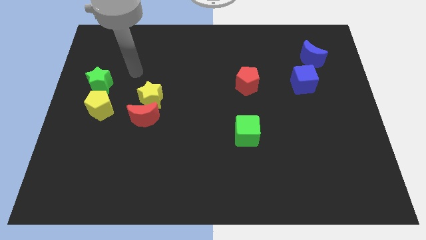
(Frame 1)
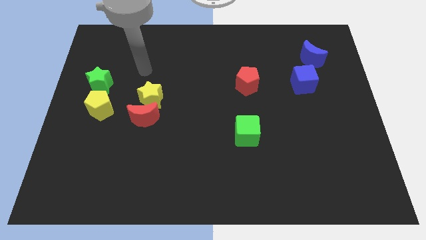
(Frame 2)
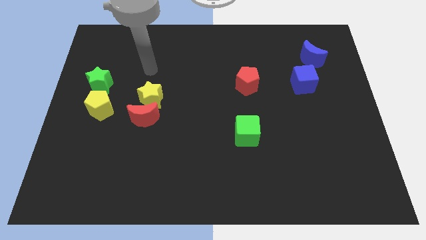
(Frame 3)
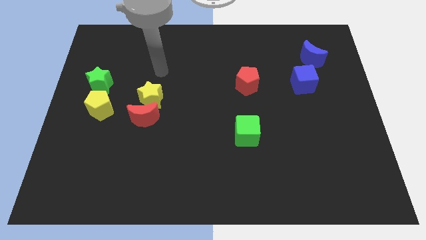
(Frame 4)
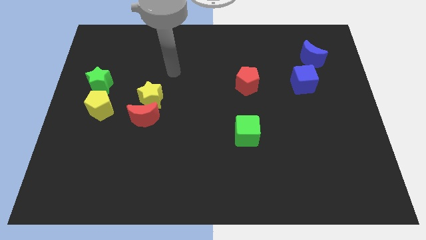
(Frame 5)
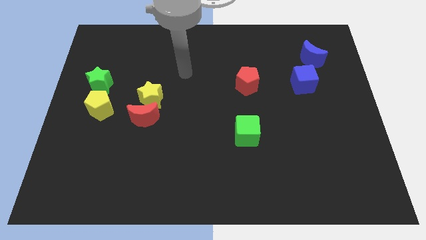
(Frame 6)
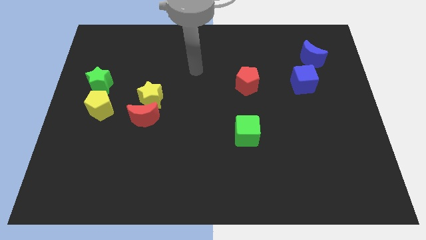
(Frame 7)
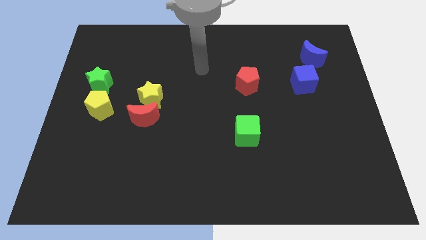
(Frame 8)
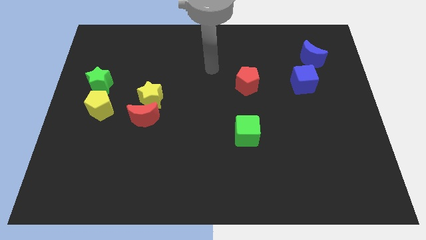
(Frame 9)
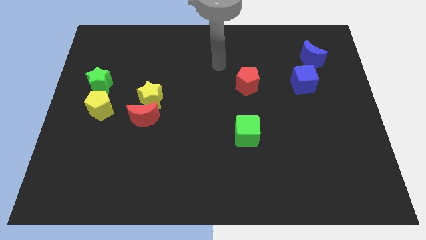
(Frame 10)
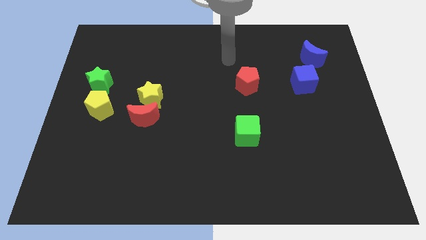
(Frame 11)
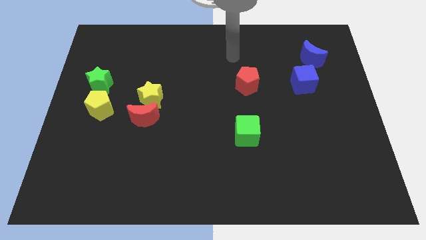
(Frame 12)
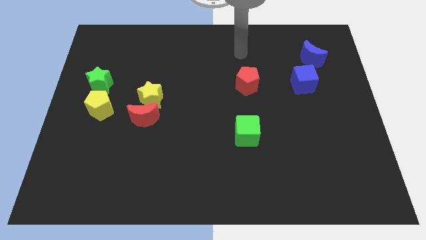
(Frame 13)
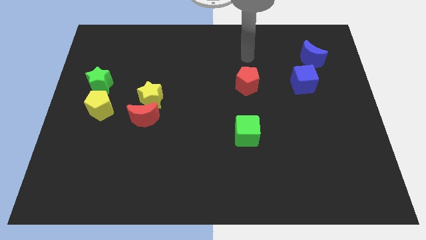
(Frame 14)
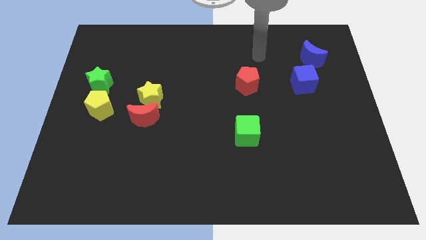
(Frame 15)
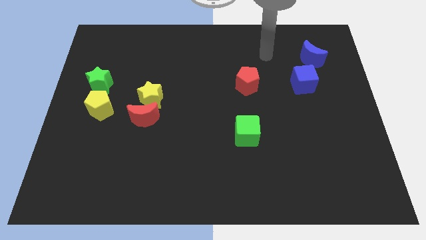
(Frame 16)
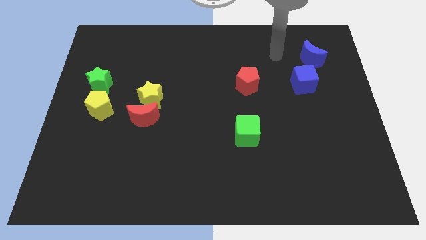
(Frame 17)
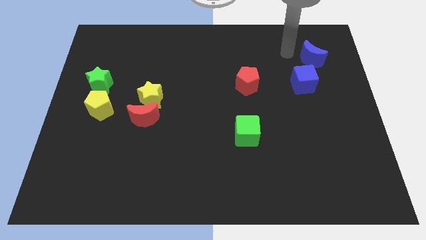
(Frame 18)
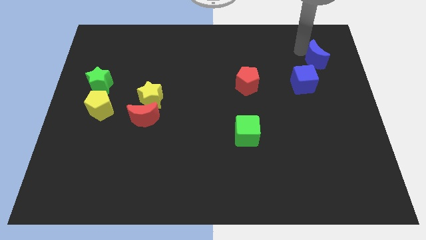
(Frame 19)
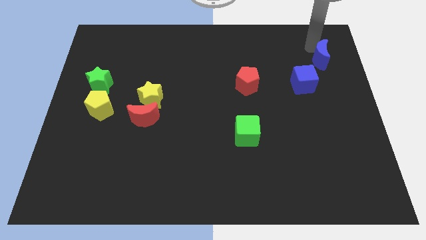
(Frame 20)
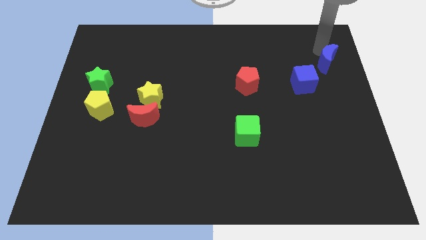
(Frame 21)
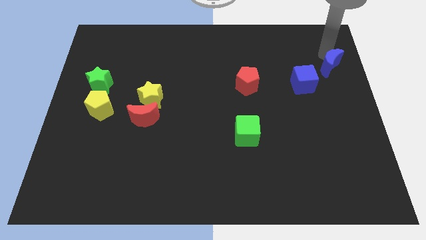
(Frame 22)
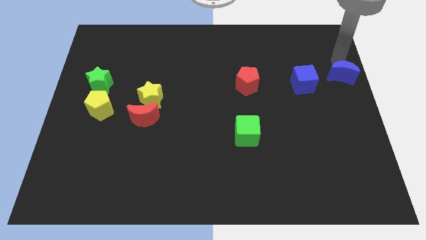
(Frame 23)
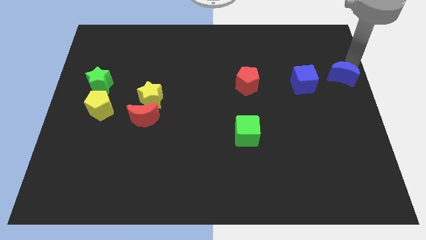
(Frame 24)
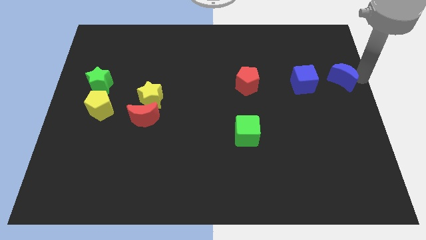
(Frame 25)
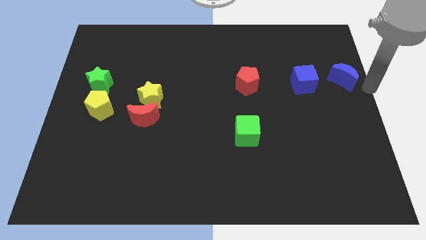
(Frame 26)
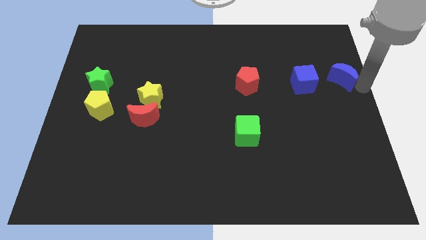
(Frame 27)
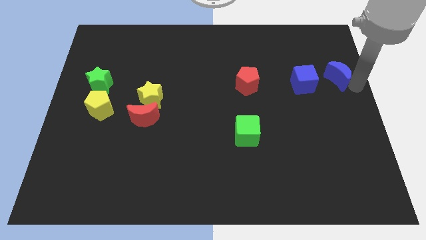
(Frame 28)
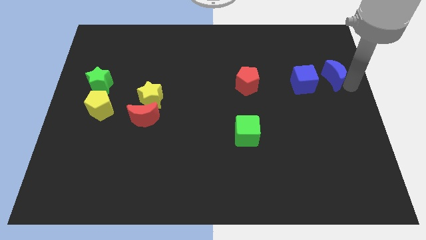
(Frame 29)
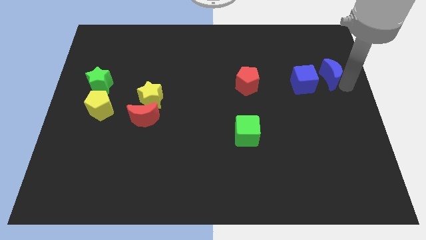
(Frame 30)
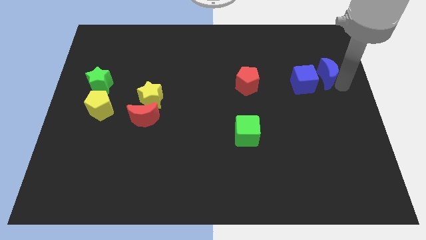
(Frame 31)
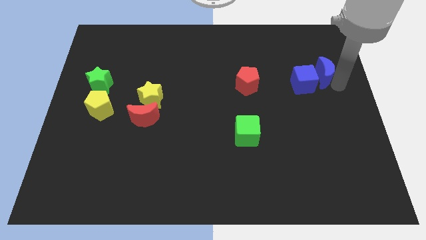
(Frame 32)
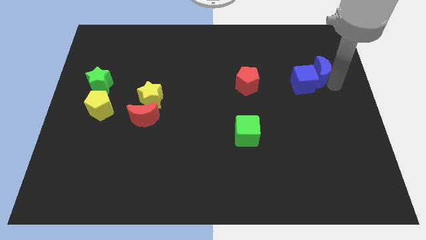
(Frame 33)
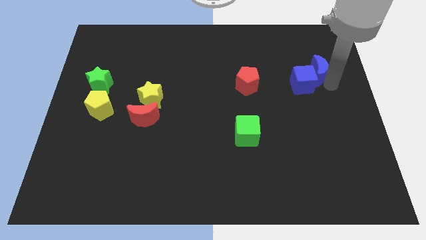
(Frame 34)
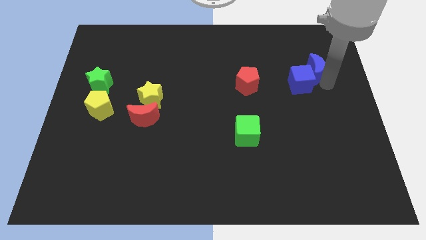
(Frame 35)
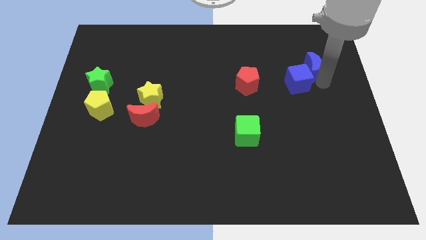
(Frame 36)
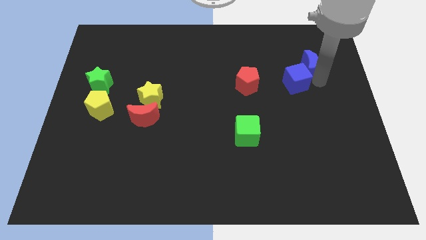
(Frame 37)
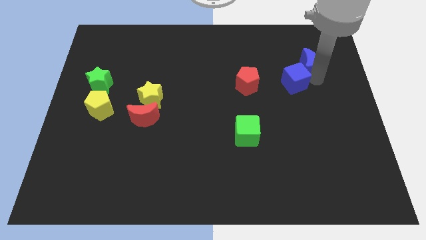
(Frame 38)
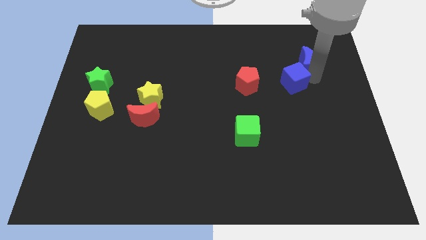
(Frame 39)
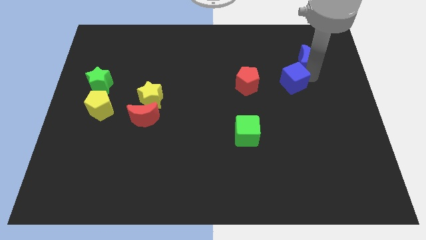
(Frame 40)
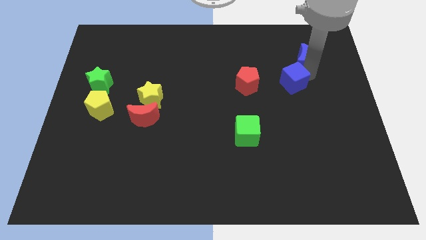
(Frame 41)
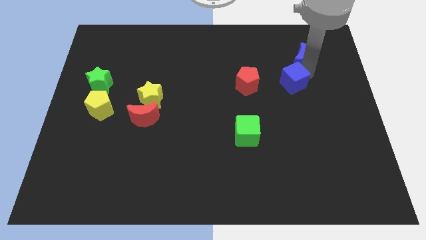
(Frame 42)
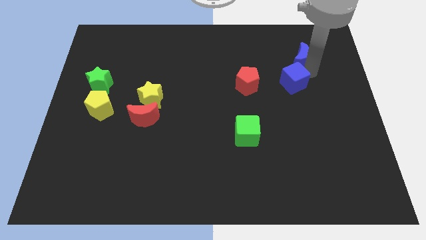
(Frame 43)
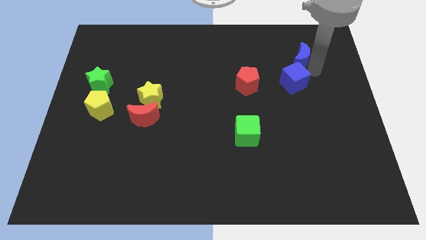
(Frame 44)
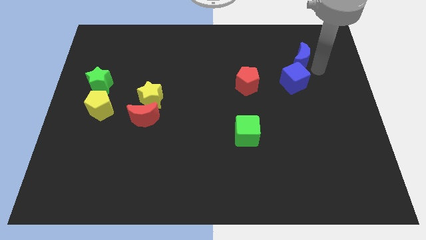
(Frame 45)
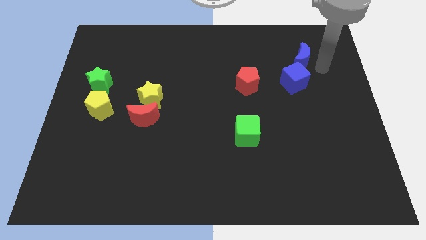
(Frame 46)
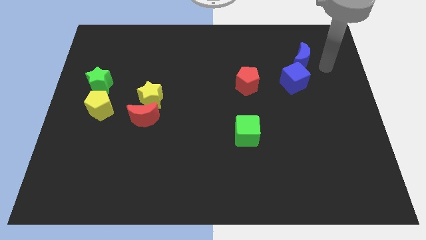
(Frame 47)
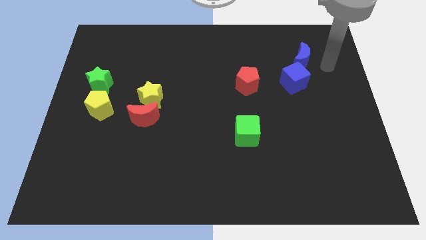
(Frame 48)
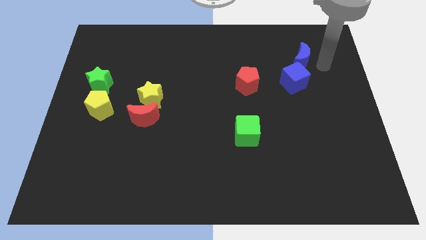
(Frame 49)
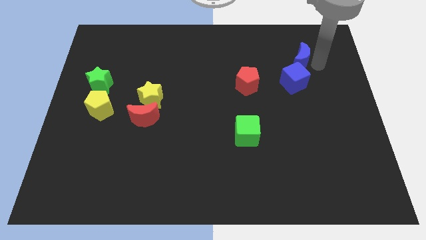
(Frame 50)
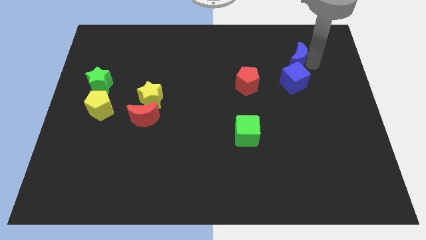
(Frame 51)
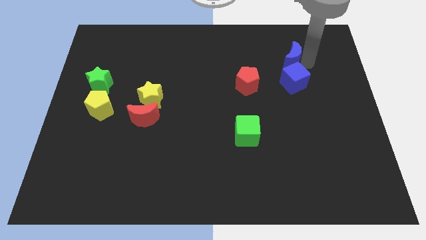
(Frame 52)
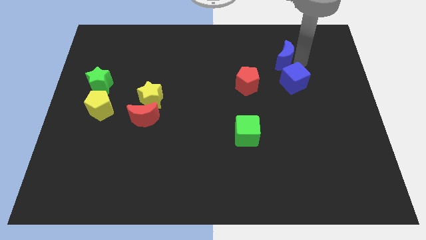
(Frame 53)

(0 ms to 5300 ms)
slightly slide the blue moon left

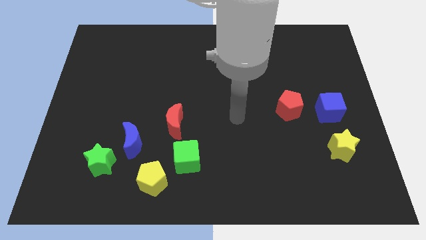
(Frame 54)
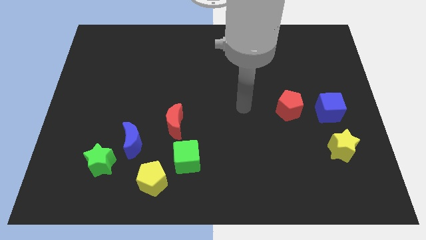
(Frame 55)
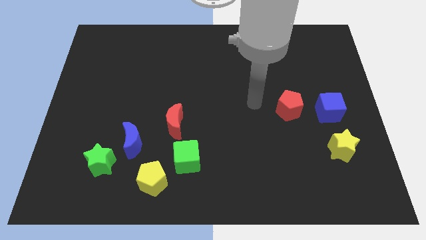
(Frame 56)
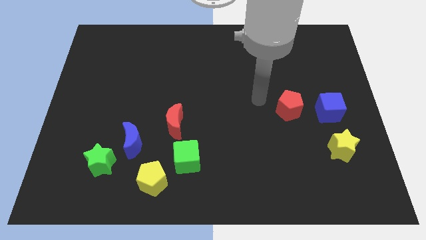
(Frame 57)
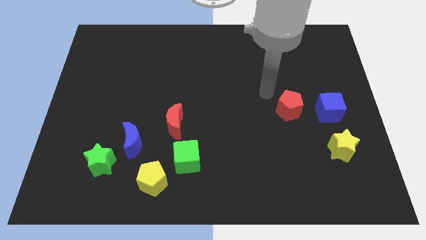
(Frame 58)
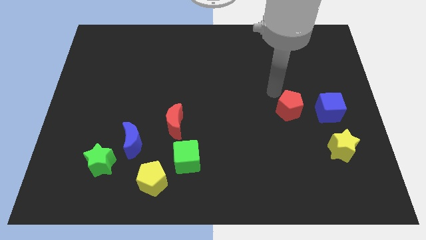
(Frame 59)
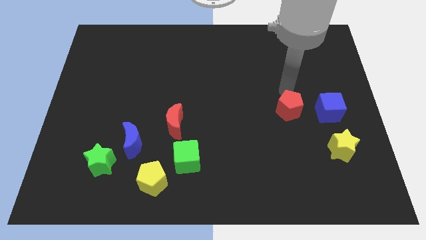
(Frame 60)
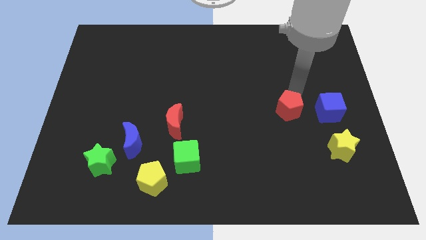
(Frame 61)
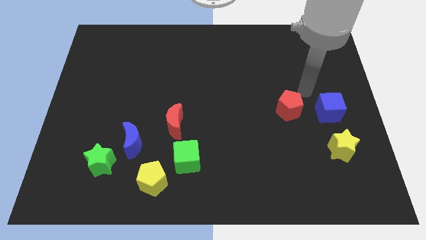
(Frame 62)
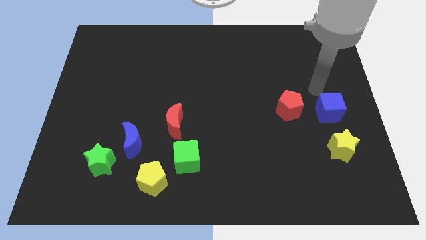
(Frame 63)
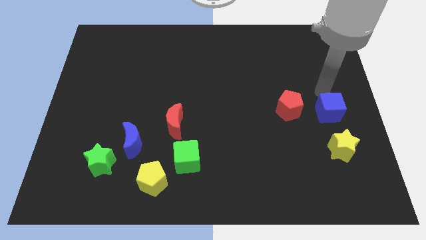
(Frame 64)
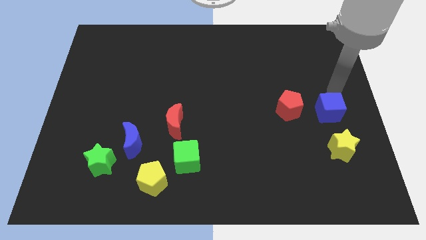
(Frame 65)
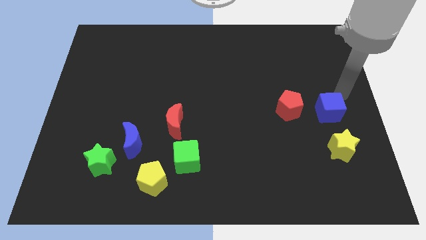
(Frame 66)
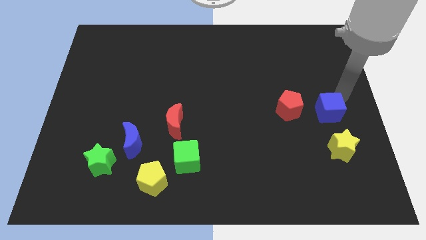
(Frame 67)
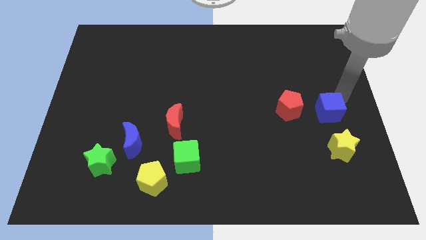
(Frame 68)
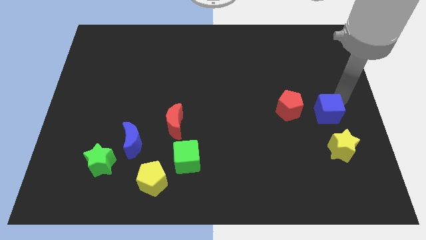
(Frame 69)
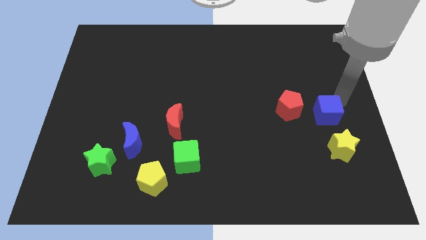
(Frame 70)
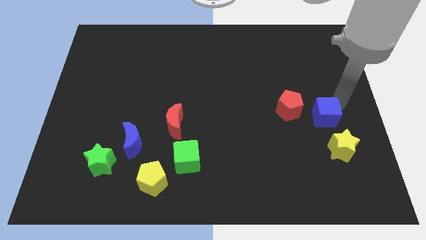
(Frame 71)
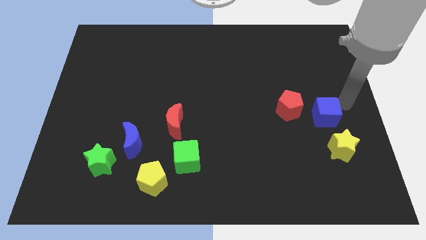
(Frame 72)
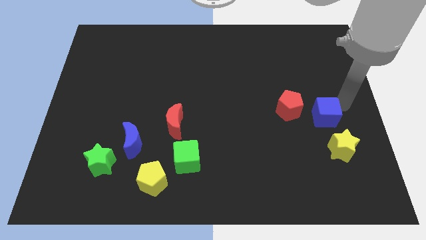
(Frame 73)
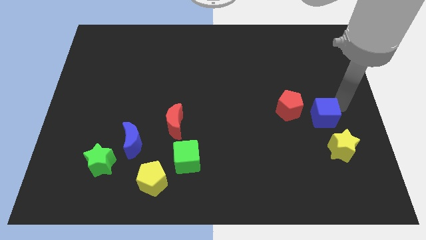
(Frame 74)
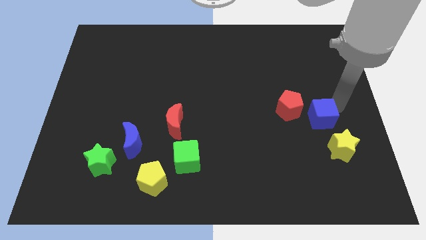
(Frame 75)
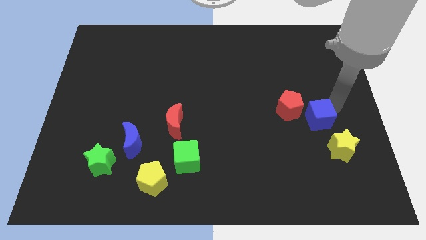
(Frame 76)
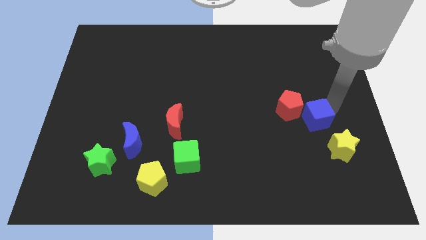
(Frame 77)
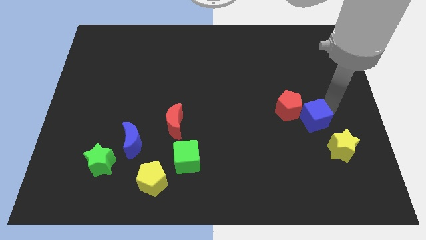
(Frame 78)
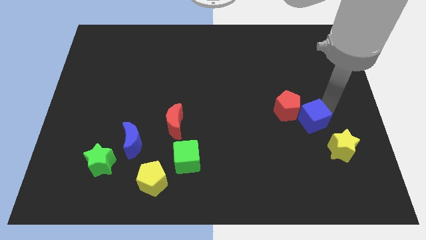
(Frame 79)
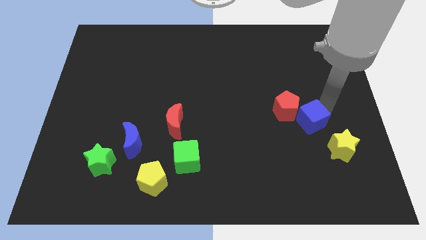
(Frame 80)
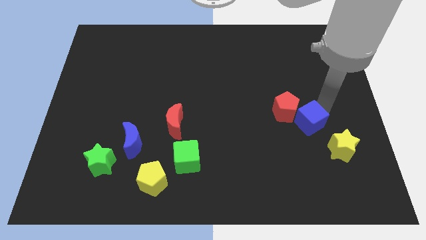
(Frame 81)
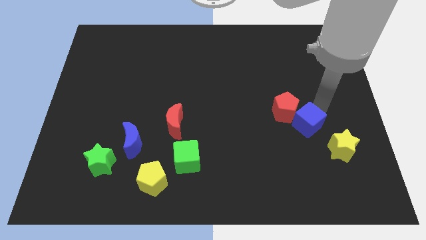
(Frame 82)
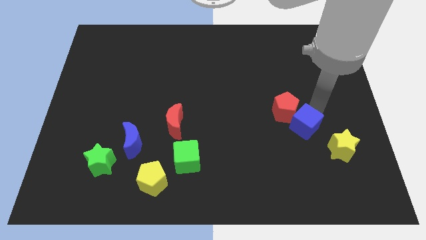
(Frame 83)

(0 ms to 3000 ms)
slightly slide the blue cube down and left
